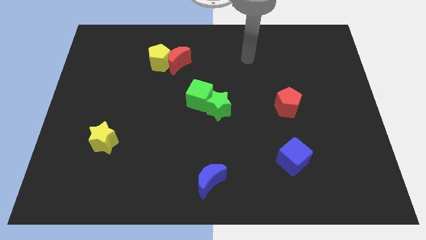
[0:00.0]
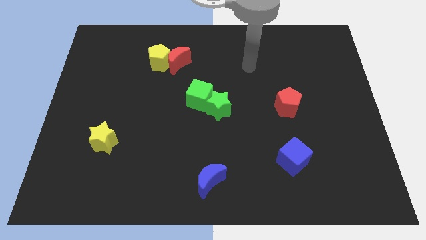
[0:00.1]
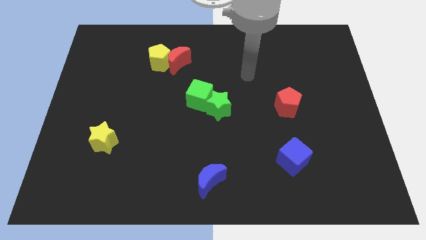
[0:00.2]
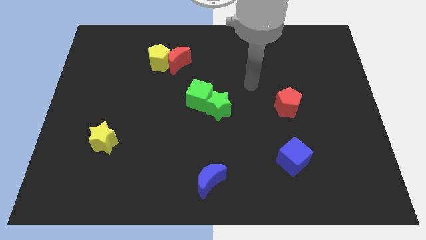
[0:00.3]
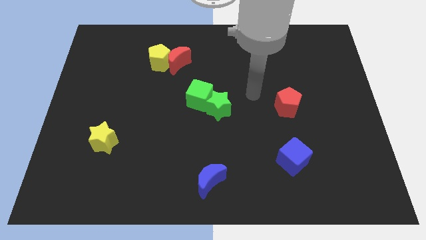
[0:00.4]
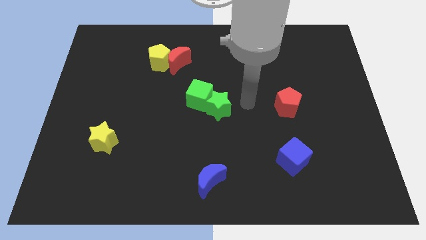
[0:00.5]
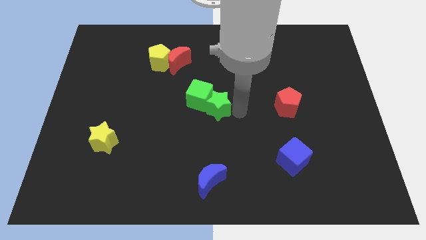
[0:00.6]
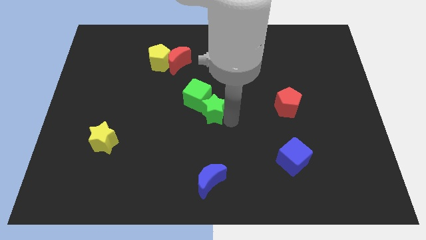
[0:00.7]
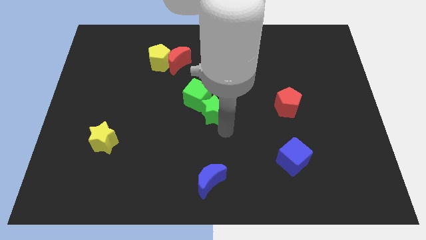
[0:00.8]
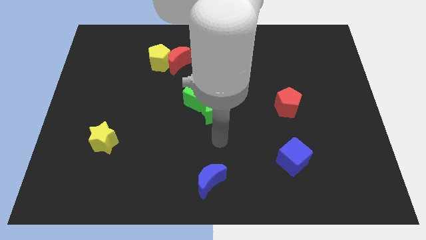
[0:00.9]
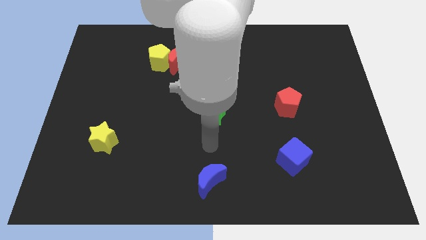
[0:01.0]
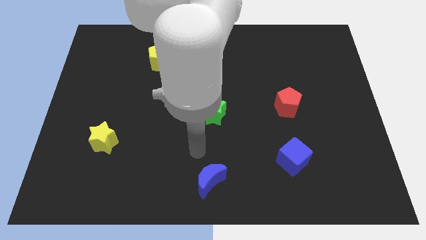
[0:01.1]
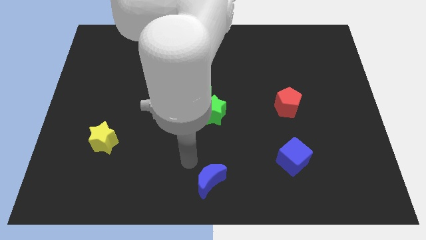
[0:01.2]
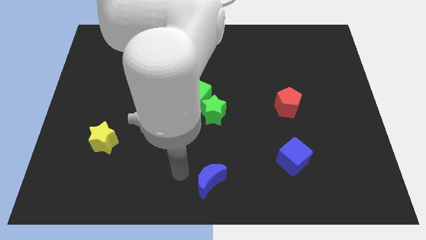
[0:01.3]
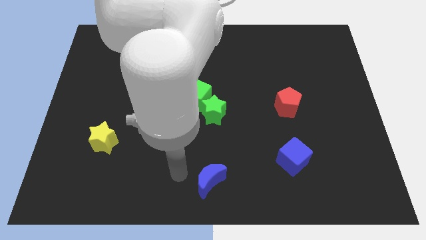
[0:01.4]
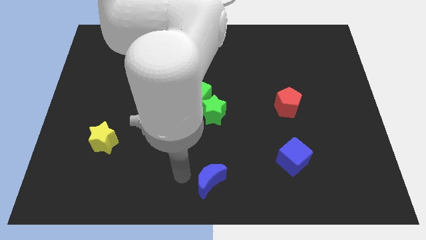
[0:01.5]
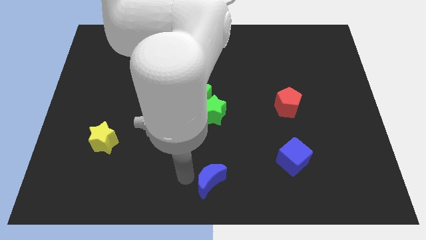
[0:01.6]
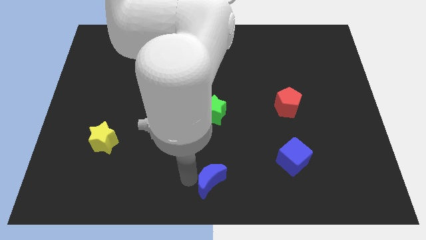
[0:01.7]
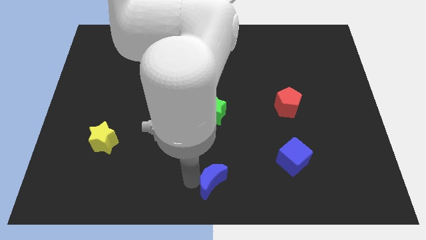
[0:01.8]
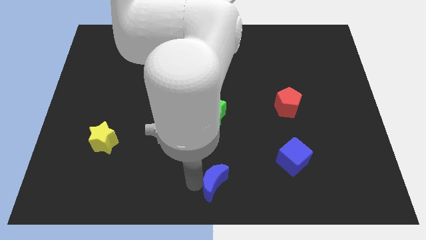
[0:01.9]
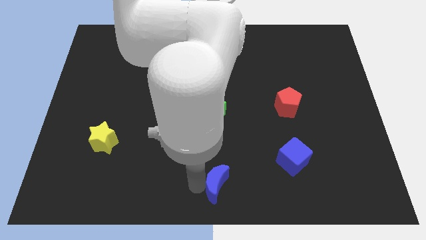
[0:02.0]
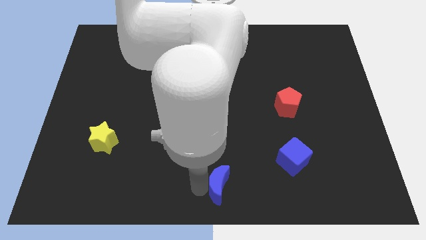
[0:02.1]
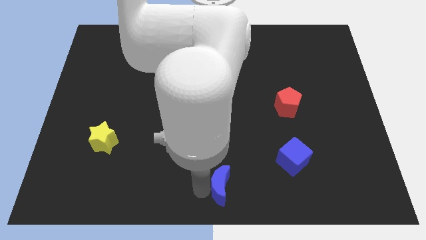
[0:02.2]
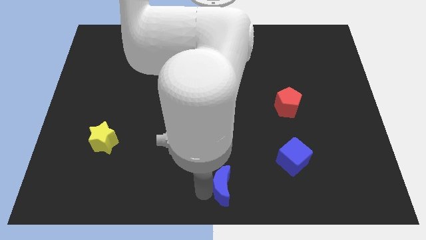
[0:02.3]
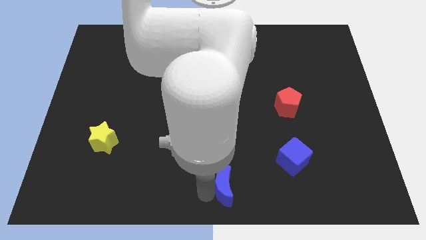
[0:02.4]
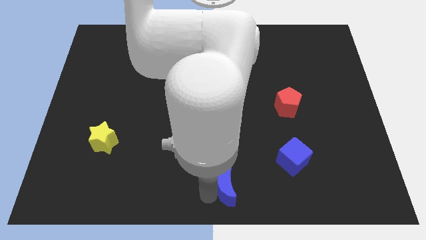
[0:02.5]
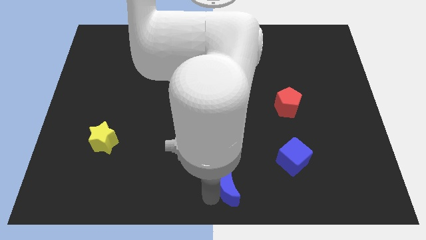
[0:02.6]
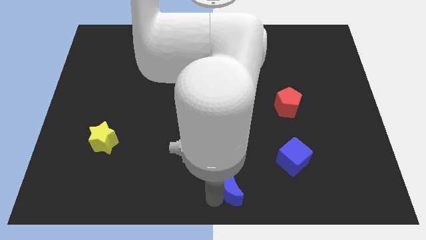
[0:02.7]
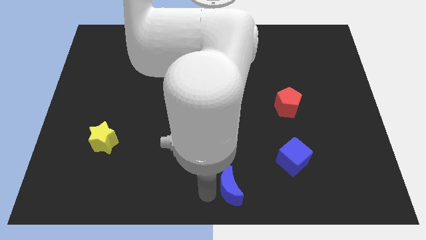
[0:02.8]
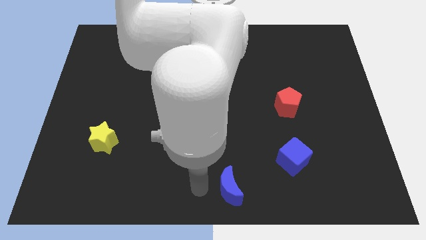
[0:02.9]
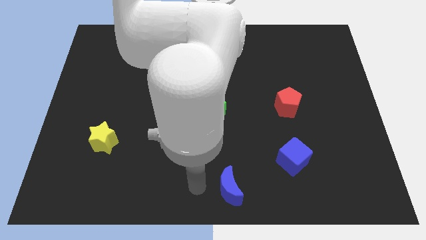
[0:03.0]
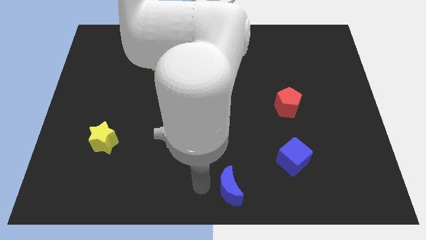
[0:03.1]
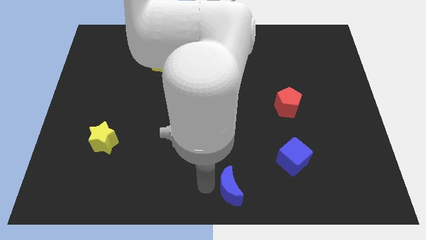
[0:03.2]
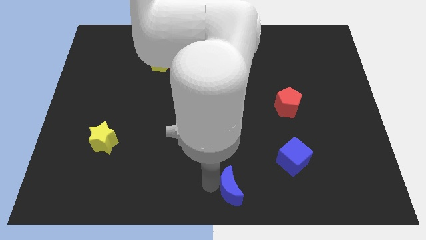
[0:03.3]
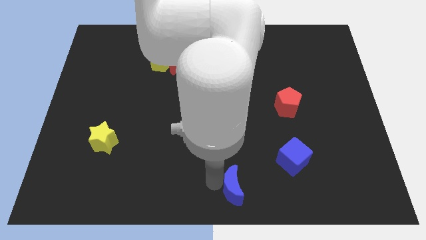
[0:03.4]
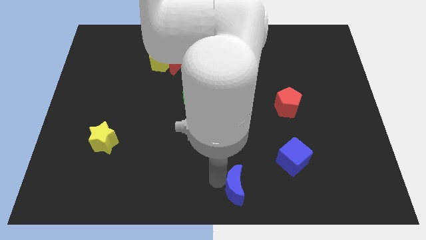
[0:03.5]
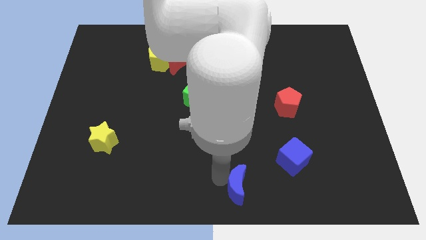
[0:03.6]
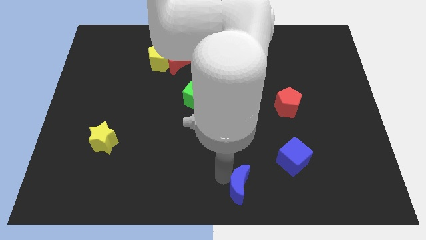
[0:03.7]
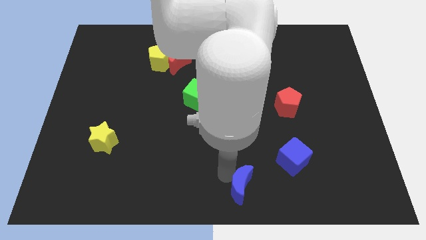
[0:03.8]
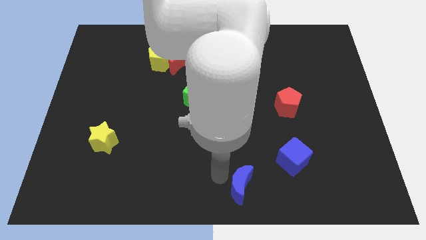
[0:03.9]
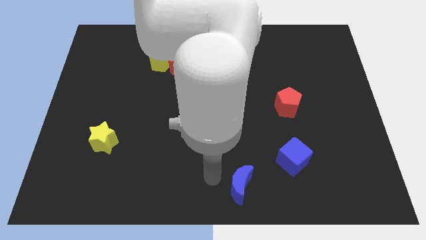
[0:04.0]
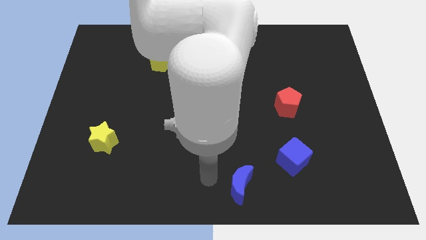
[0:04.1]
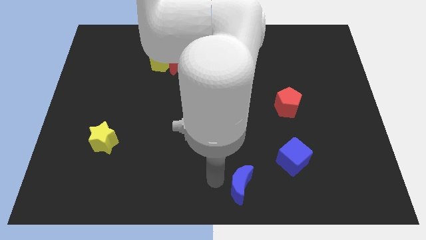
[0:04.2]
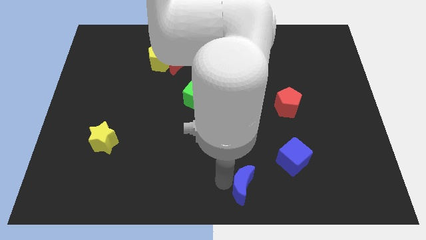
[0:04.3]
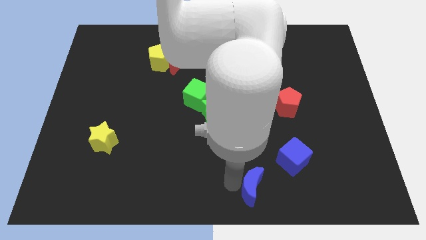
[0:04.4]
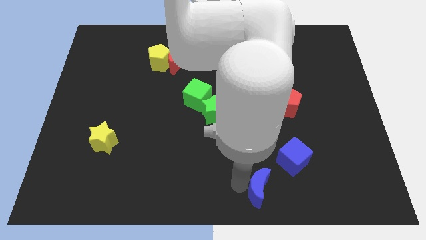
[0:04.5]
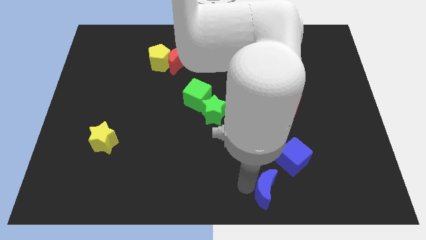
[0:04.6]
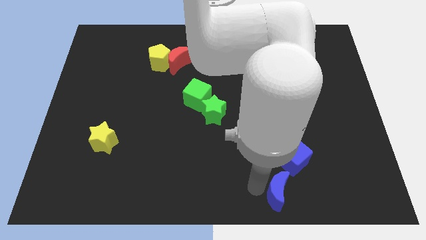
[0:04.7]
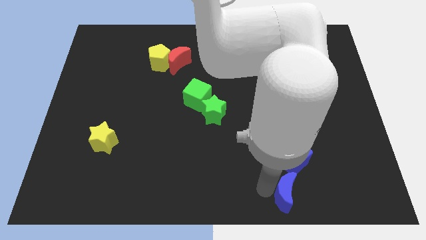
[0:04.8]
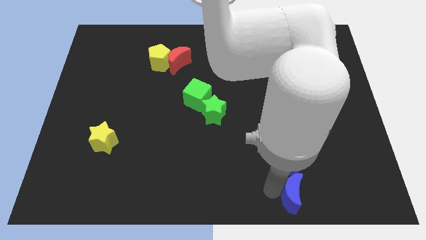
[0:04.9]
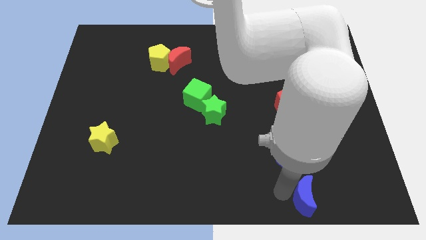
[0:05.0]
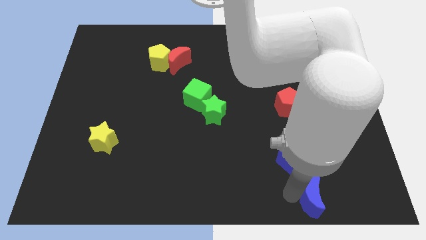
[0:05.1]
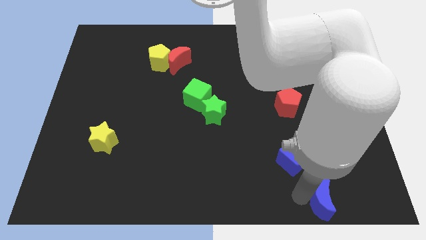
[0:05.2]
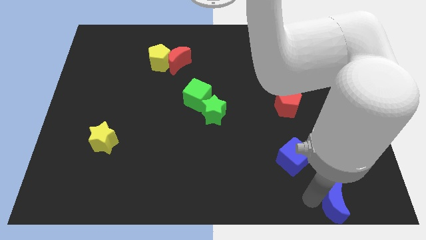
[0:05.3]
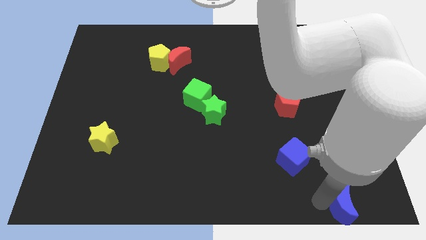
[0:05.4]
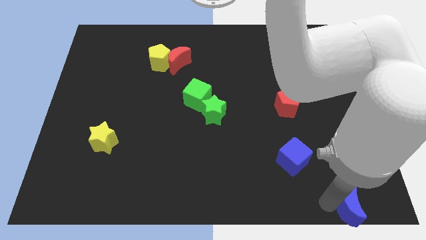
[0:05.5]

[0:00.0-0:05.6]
move the blue moon to the bottom right corner

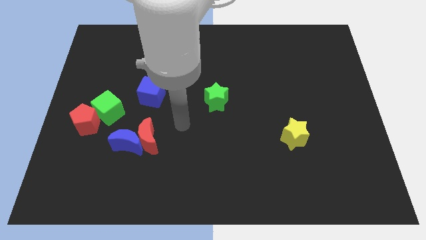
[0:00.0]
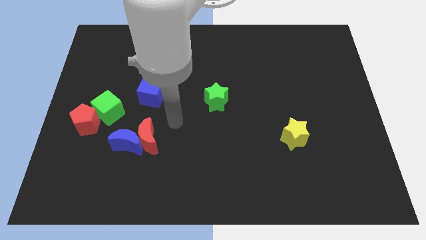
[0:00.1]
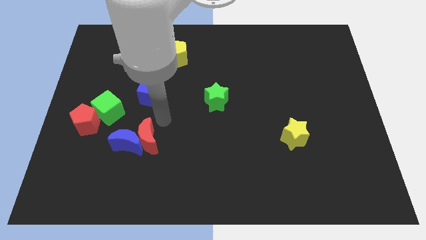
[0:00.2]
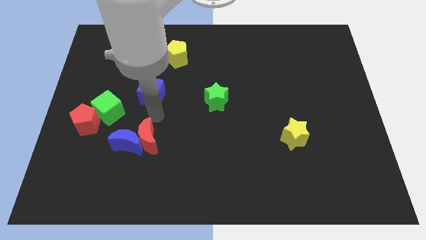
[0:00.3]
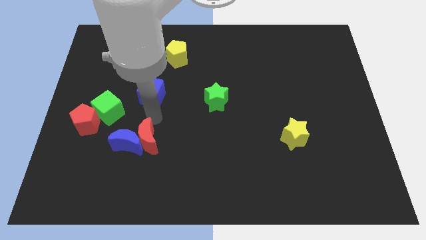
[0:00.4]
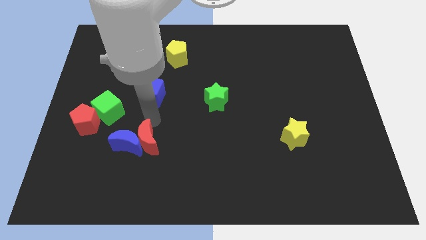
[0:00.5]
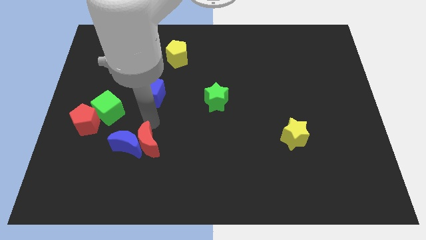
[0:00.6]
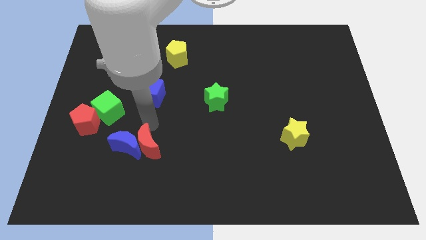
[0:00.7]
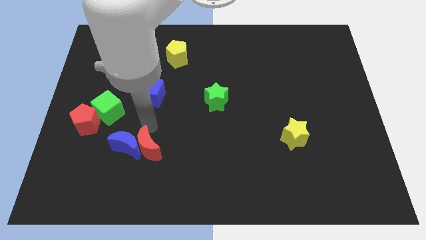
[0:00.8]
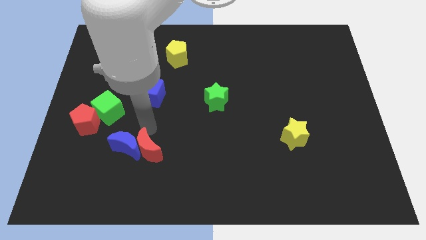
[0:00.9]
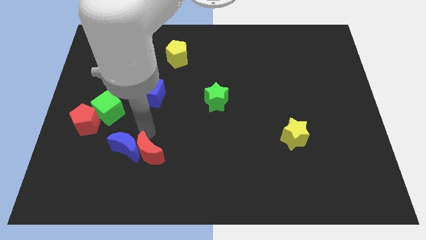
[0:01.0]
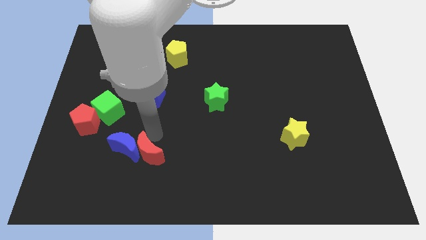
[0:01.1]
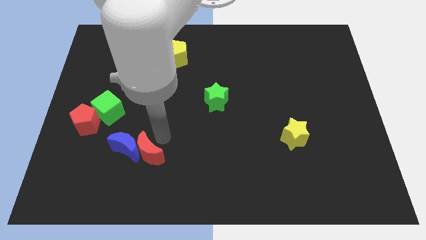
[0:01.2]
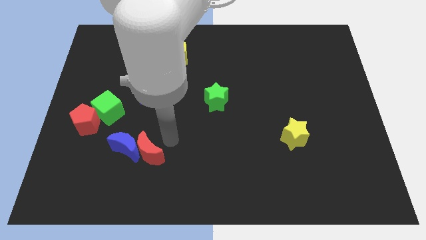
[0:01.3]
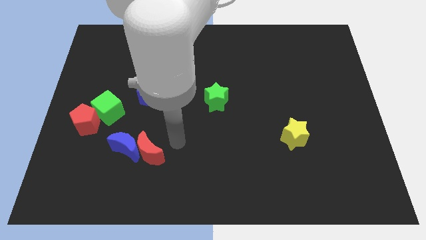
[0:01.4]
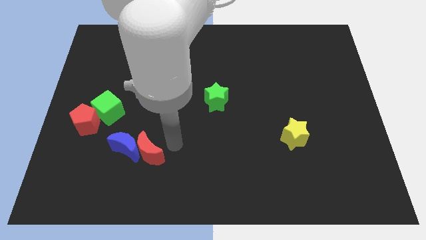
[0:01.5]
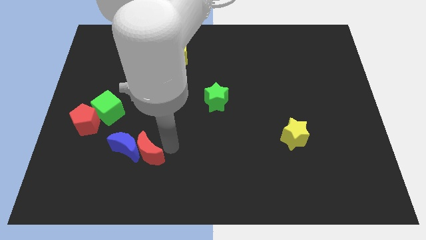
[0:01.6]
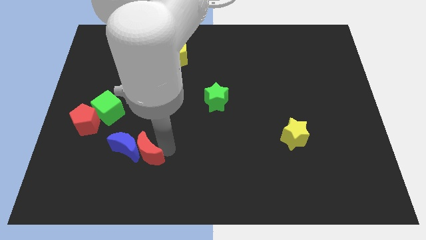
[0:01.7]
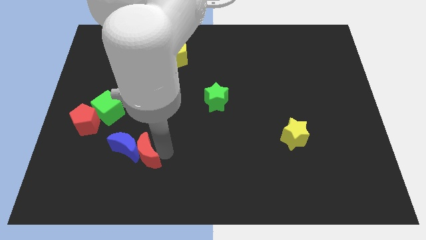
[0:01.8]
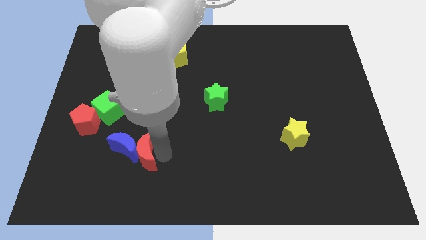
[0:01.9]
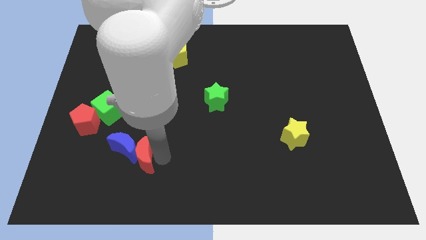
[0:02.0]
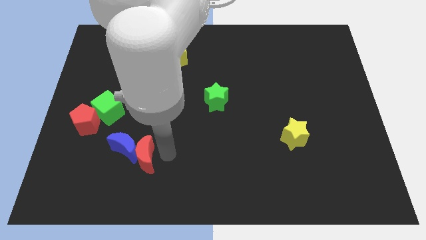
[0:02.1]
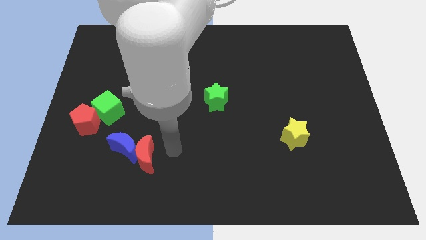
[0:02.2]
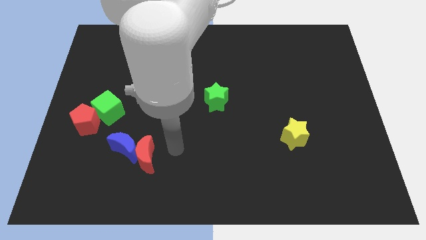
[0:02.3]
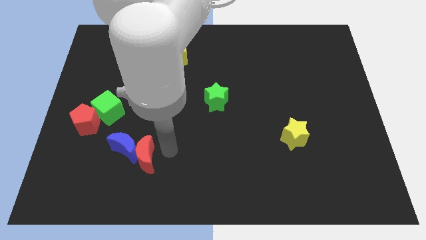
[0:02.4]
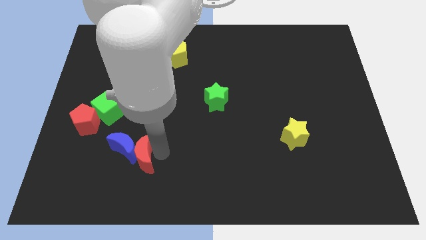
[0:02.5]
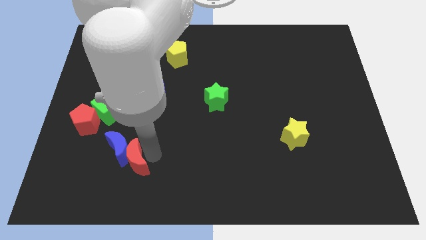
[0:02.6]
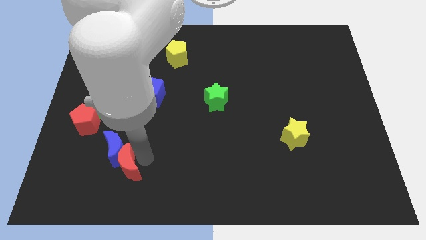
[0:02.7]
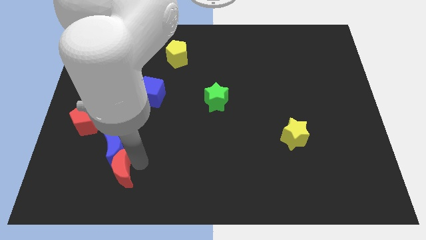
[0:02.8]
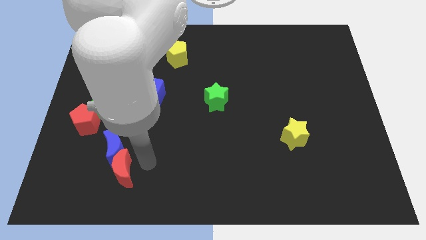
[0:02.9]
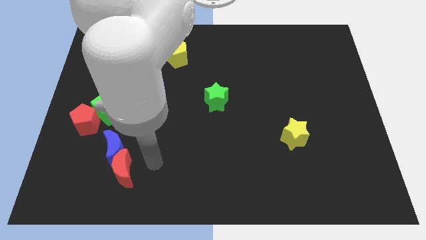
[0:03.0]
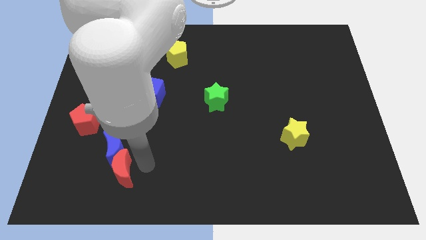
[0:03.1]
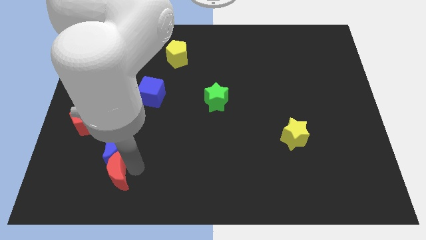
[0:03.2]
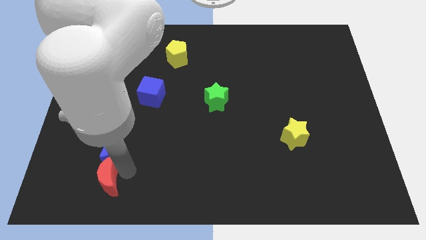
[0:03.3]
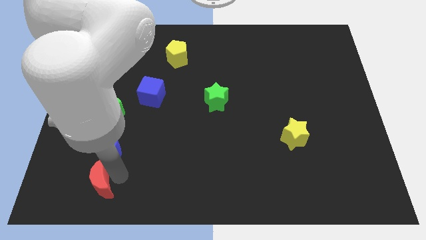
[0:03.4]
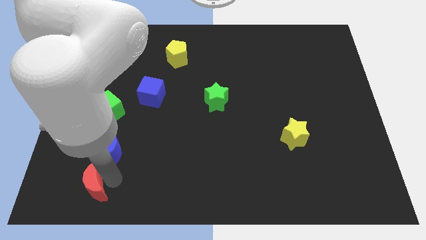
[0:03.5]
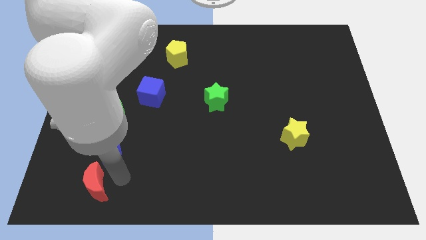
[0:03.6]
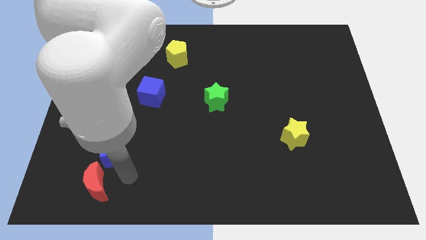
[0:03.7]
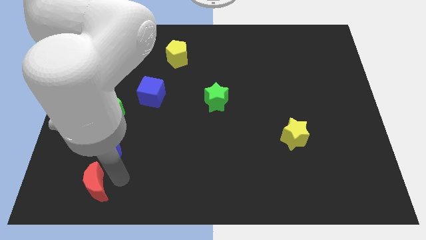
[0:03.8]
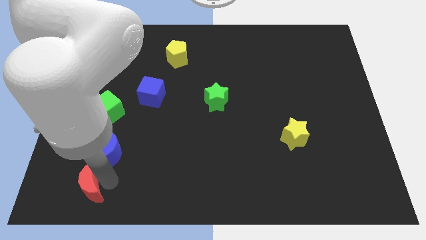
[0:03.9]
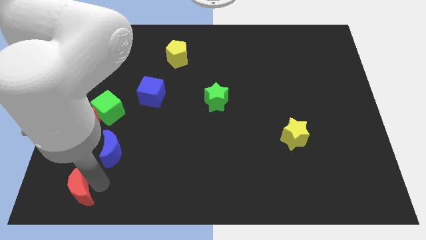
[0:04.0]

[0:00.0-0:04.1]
slide the red moon to the bottom left of the board
